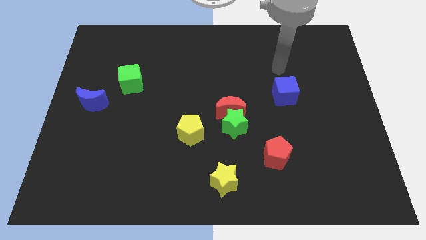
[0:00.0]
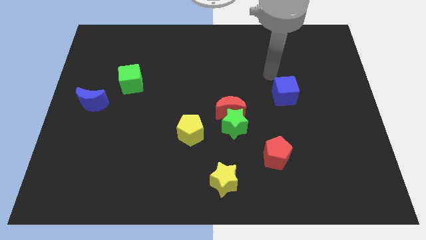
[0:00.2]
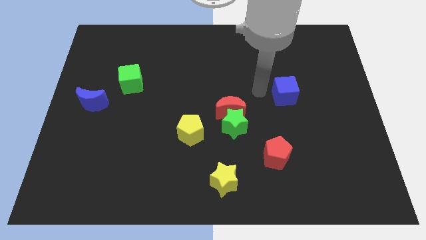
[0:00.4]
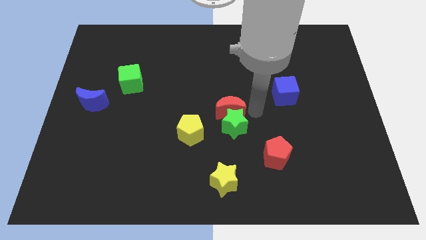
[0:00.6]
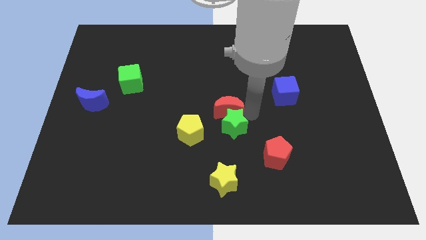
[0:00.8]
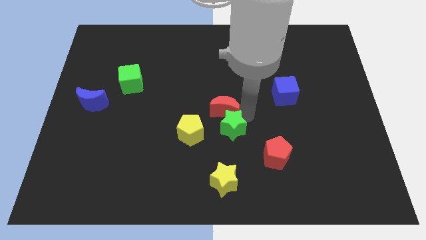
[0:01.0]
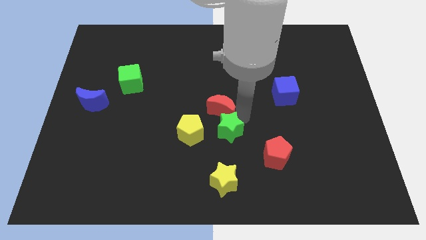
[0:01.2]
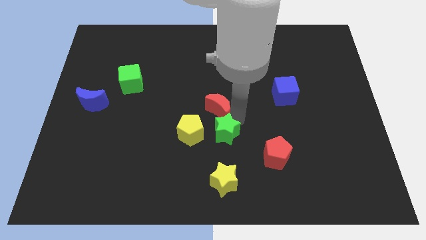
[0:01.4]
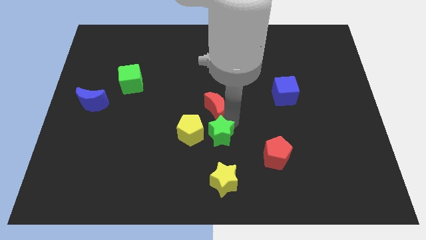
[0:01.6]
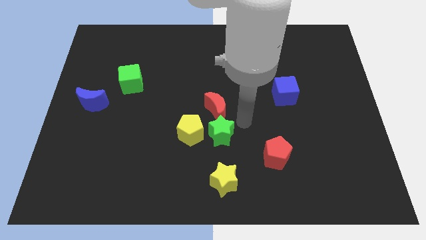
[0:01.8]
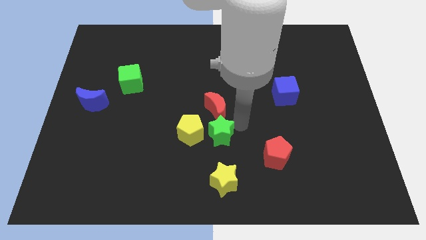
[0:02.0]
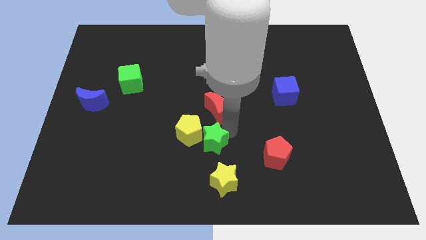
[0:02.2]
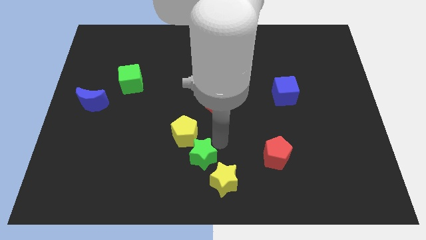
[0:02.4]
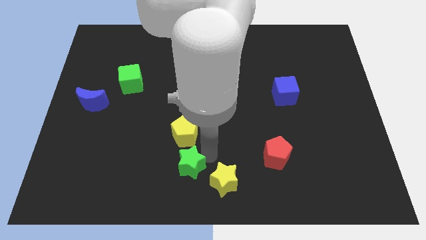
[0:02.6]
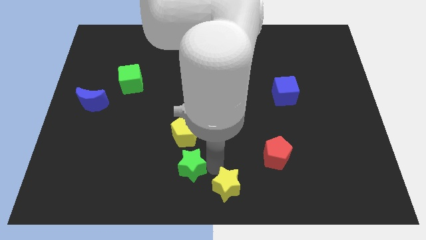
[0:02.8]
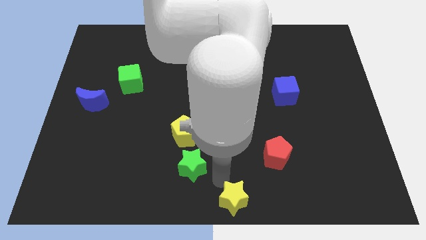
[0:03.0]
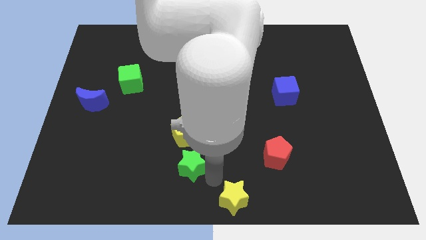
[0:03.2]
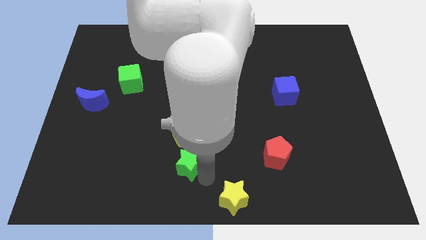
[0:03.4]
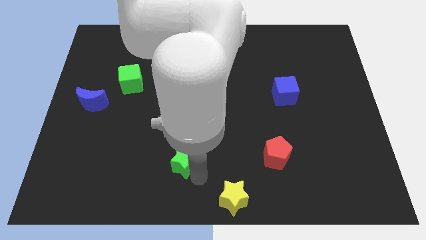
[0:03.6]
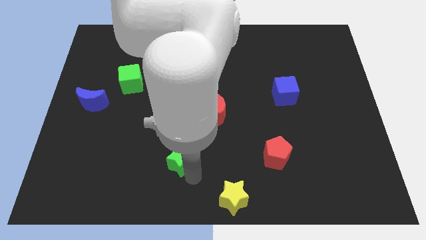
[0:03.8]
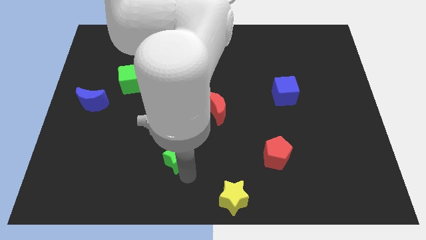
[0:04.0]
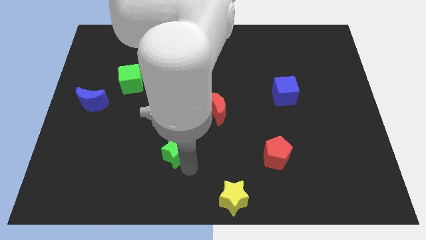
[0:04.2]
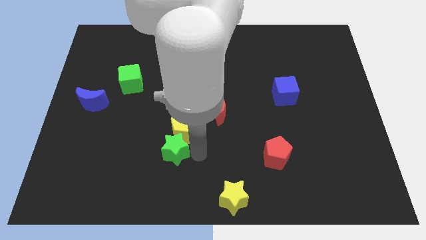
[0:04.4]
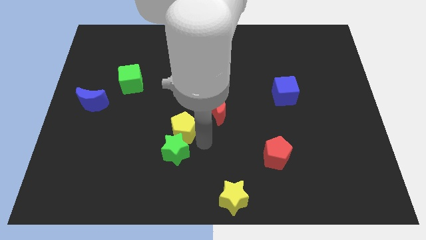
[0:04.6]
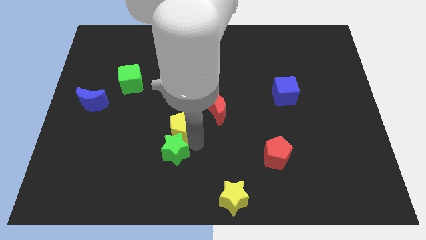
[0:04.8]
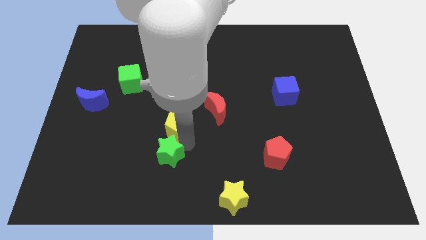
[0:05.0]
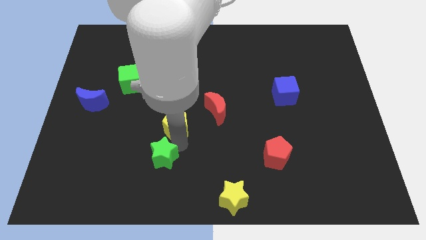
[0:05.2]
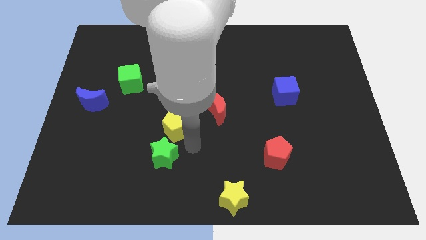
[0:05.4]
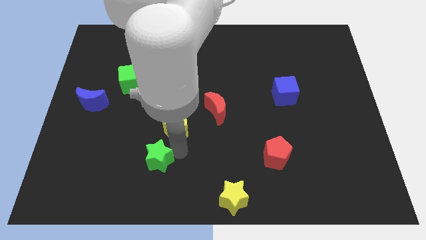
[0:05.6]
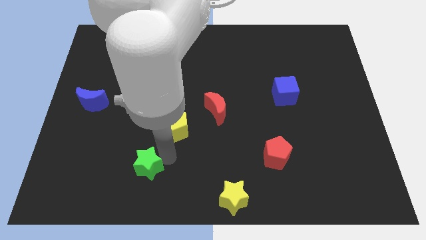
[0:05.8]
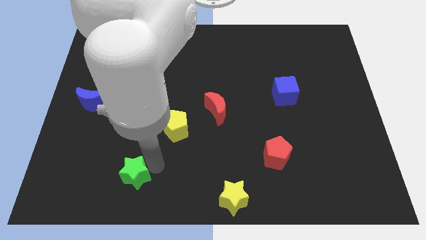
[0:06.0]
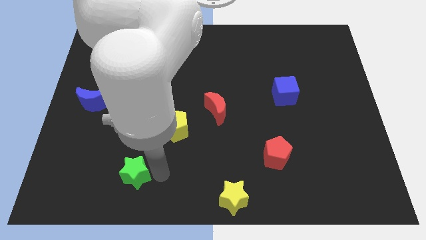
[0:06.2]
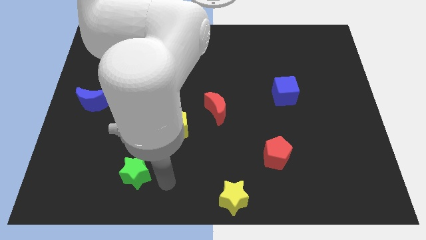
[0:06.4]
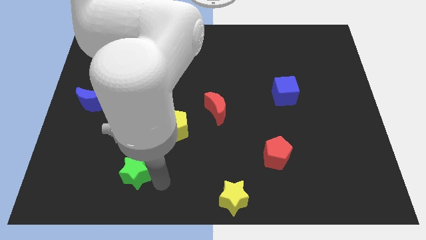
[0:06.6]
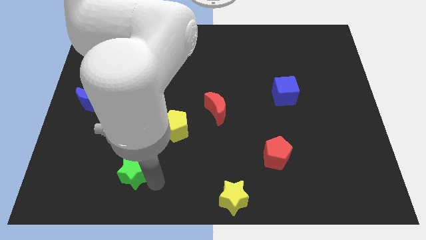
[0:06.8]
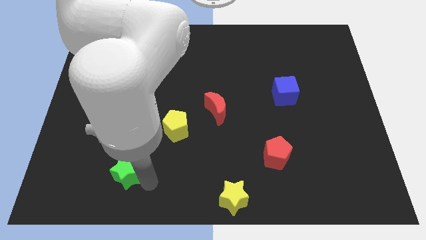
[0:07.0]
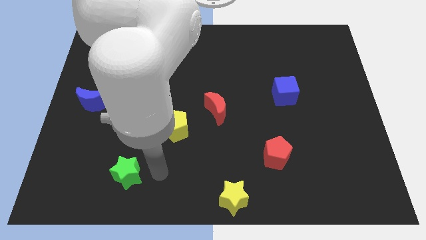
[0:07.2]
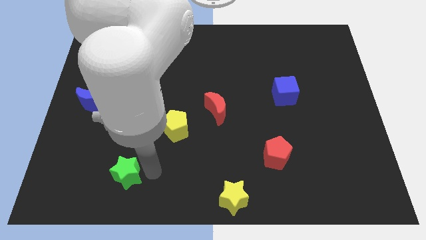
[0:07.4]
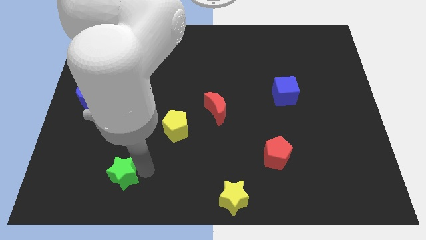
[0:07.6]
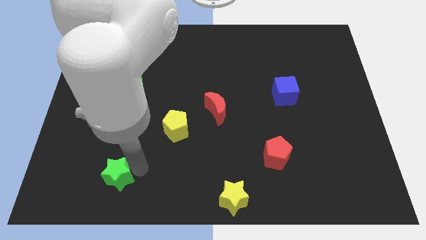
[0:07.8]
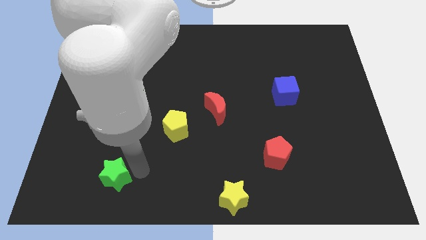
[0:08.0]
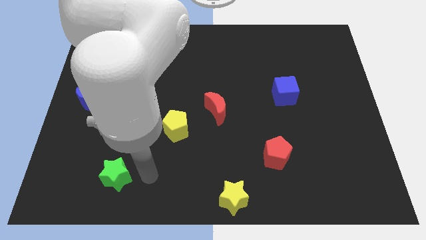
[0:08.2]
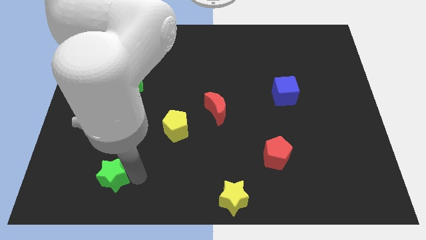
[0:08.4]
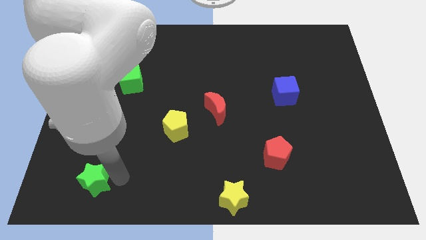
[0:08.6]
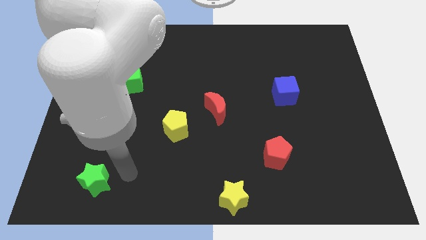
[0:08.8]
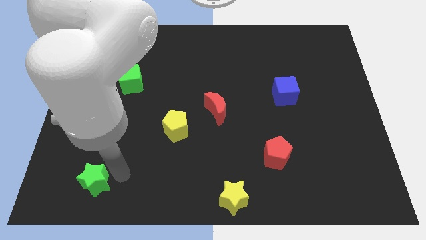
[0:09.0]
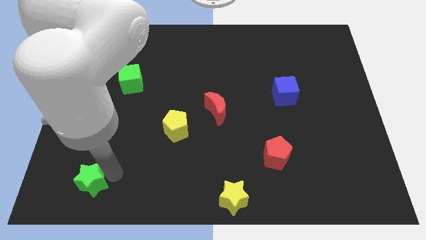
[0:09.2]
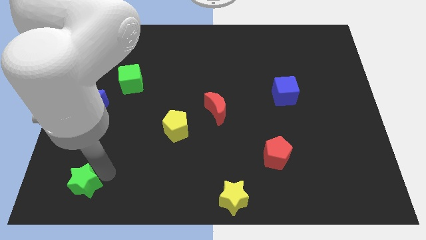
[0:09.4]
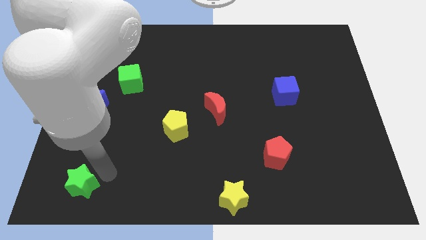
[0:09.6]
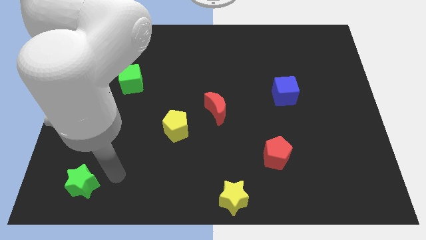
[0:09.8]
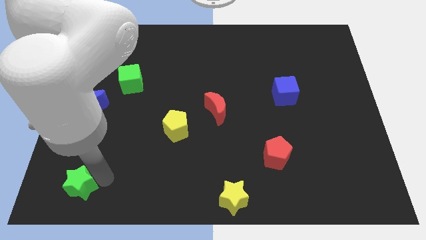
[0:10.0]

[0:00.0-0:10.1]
slide the green star to the bottom left of the board

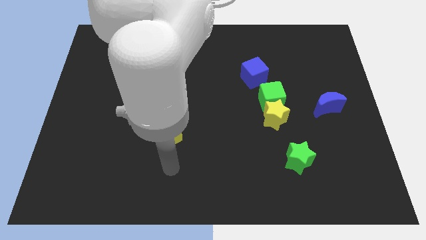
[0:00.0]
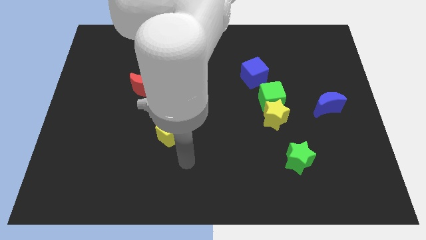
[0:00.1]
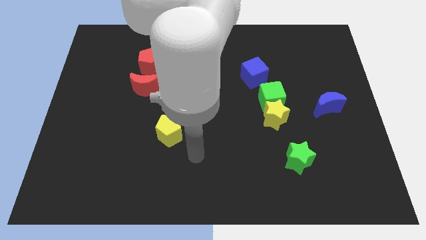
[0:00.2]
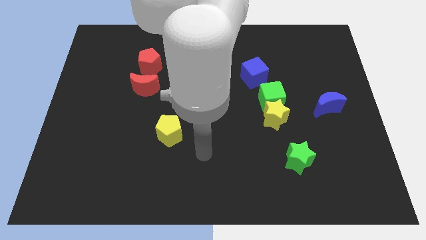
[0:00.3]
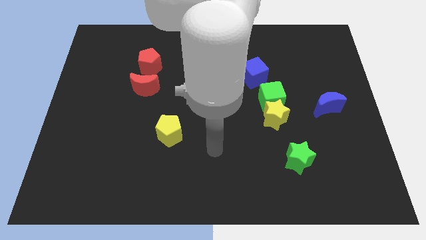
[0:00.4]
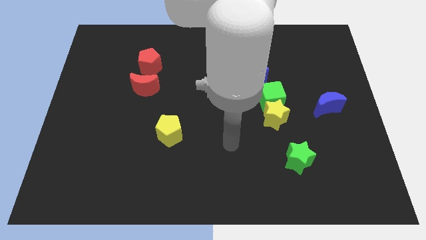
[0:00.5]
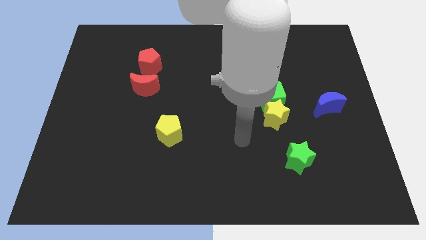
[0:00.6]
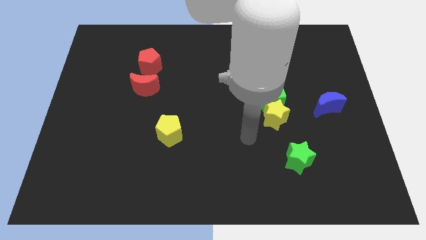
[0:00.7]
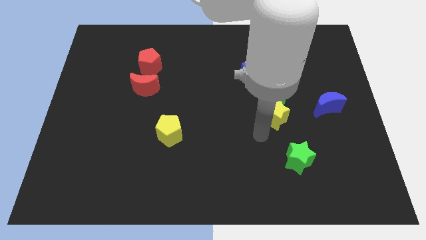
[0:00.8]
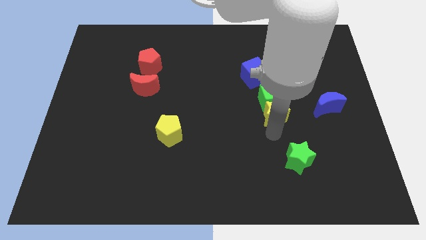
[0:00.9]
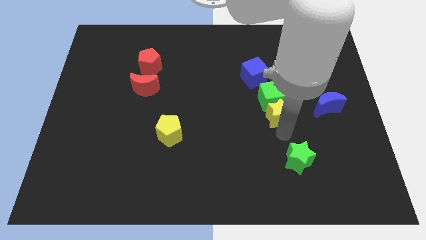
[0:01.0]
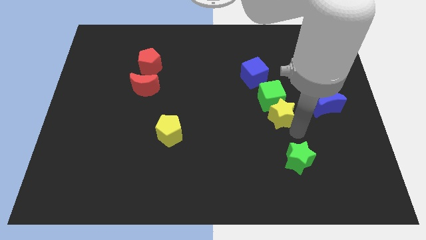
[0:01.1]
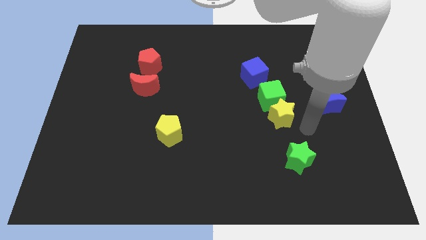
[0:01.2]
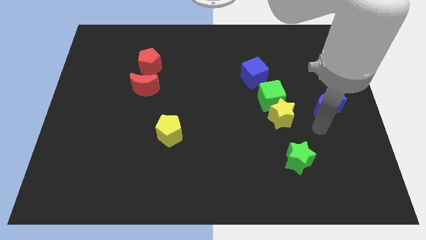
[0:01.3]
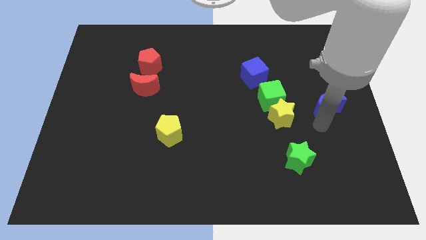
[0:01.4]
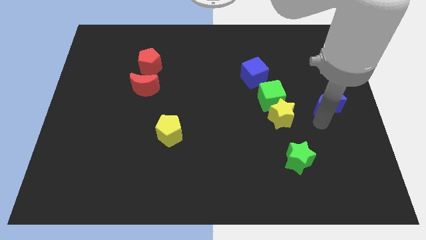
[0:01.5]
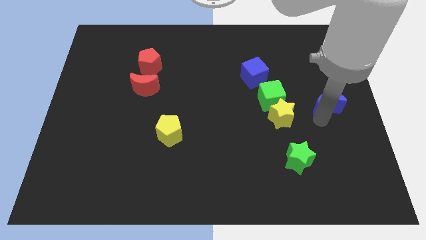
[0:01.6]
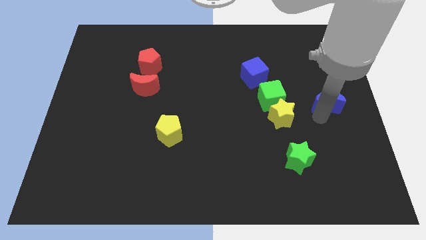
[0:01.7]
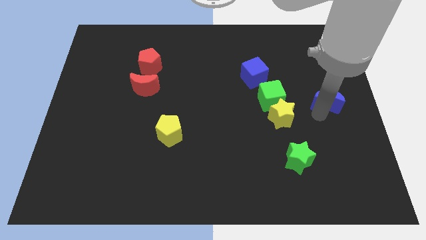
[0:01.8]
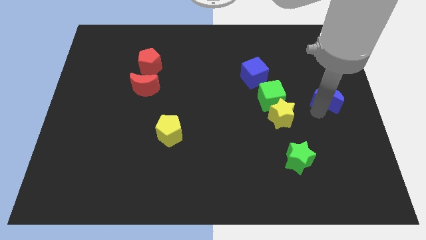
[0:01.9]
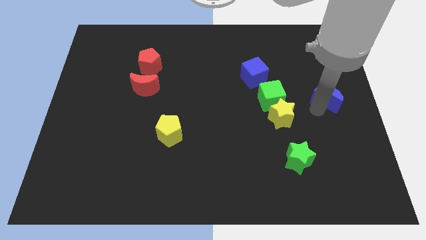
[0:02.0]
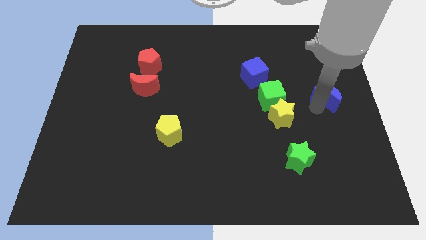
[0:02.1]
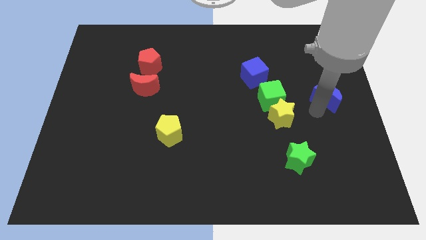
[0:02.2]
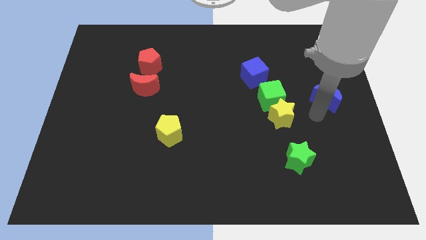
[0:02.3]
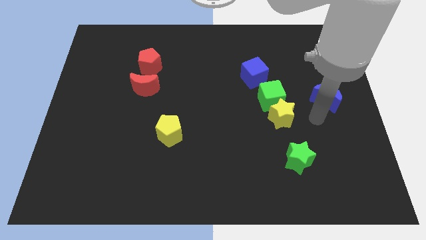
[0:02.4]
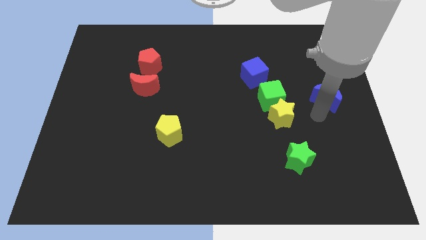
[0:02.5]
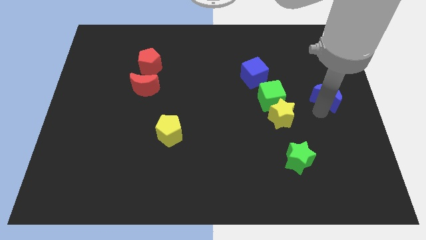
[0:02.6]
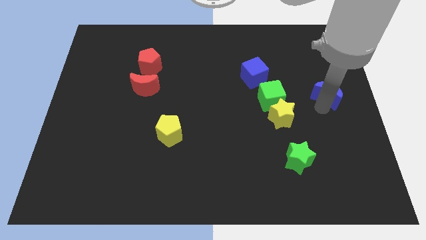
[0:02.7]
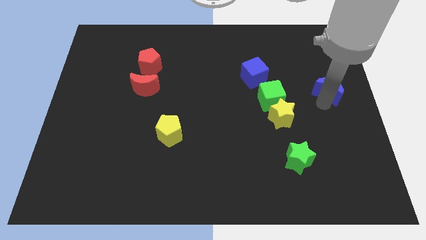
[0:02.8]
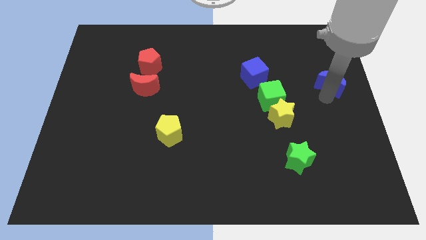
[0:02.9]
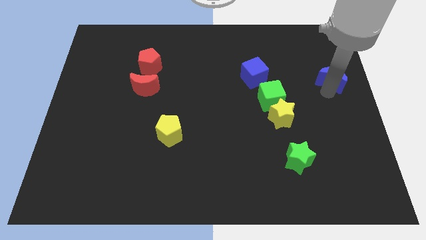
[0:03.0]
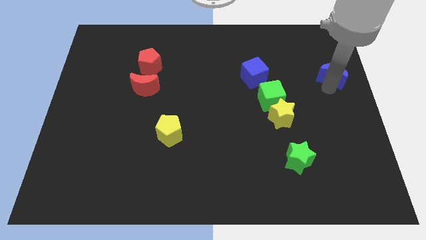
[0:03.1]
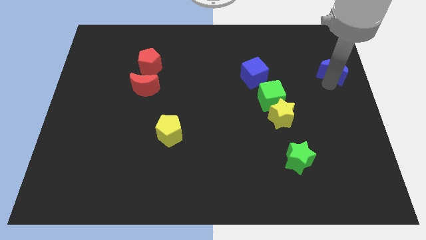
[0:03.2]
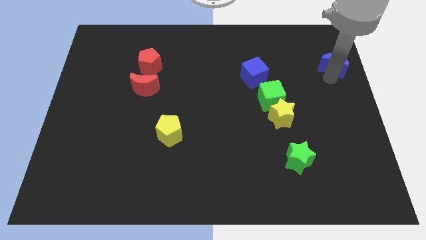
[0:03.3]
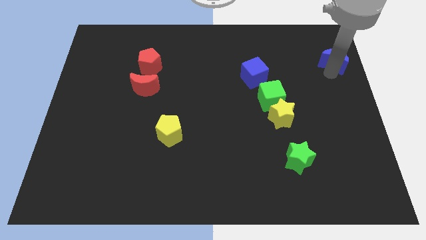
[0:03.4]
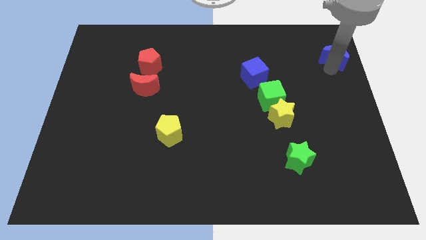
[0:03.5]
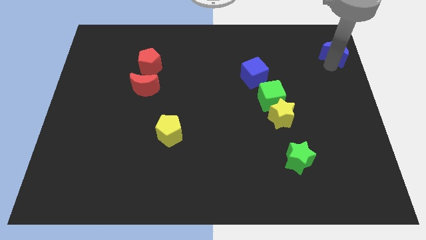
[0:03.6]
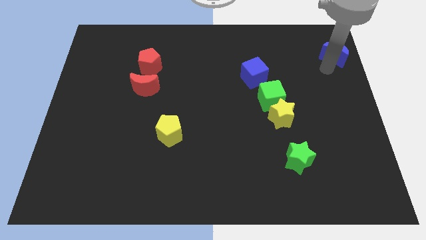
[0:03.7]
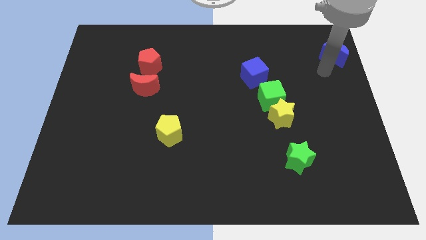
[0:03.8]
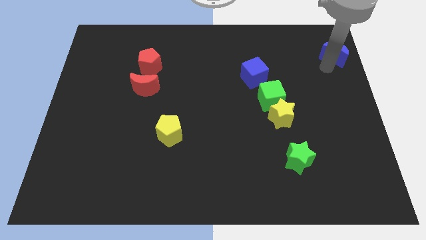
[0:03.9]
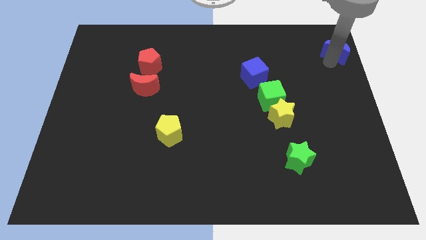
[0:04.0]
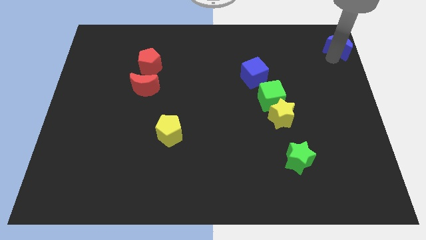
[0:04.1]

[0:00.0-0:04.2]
slide the blue moon to the top right corner
